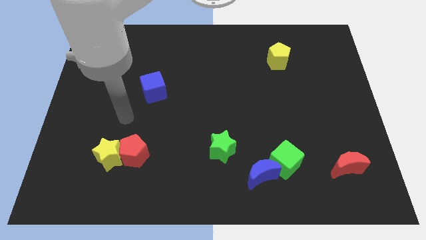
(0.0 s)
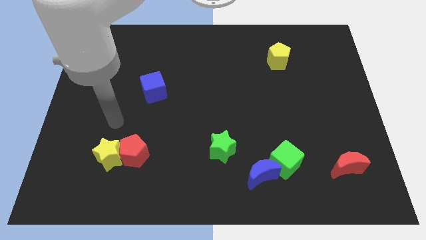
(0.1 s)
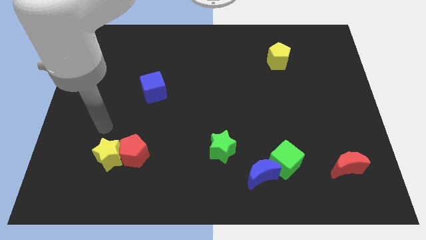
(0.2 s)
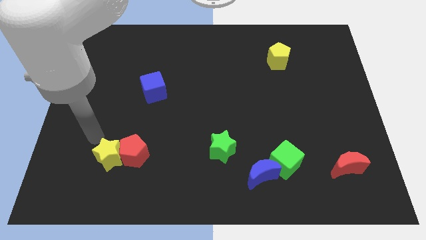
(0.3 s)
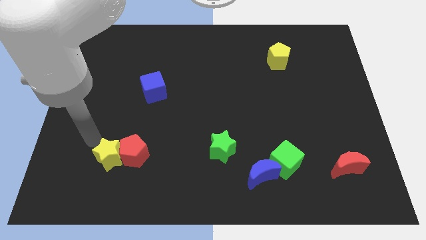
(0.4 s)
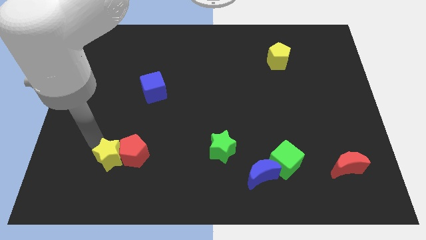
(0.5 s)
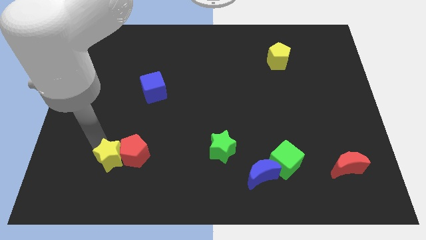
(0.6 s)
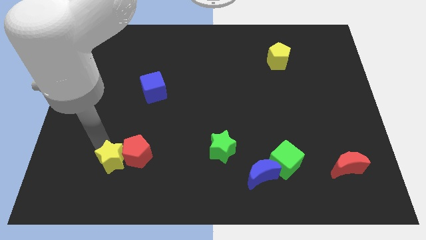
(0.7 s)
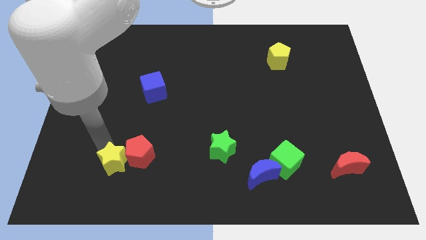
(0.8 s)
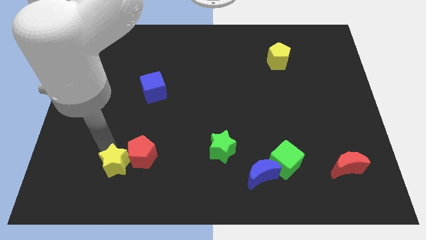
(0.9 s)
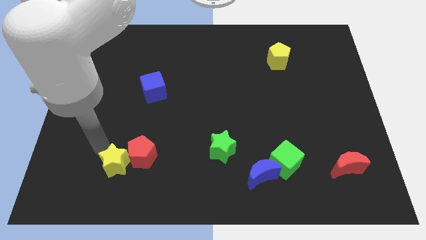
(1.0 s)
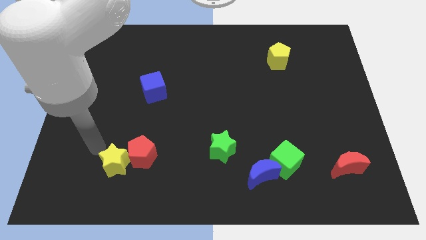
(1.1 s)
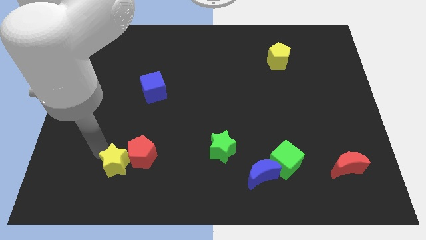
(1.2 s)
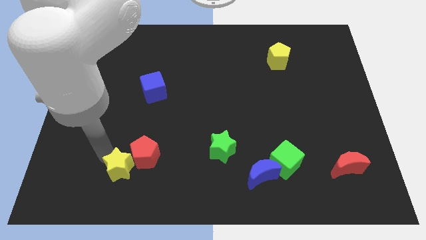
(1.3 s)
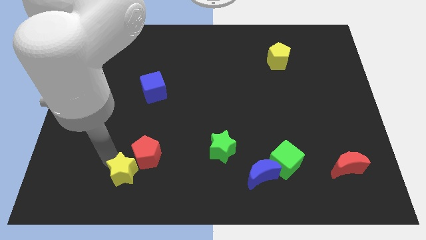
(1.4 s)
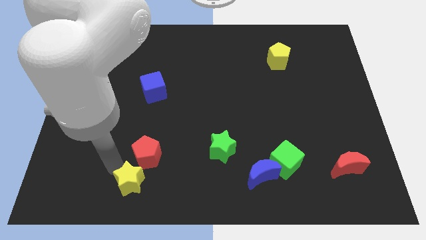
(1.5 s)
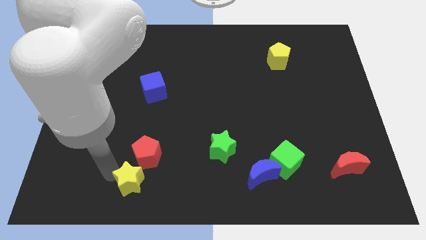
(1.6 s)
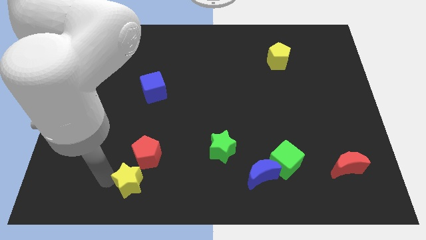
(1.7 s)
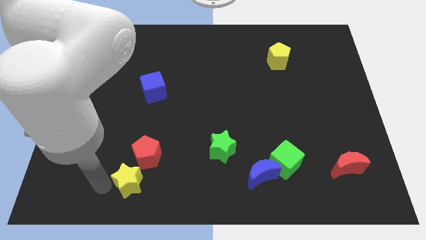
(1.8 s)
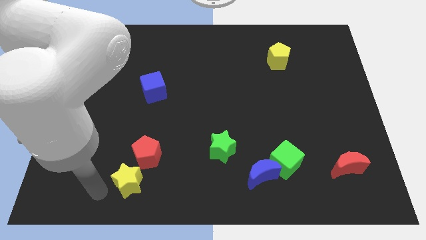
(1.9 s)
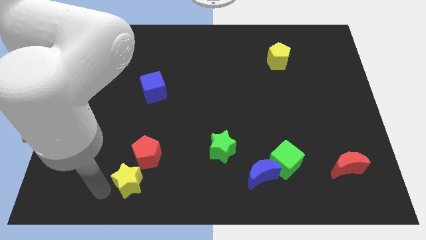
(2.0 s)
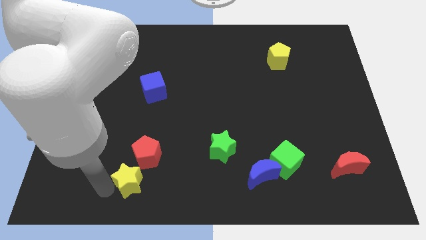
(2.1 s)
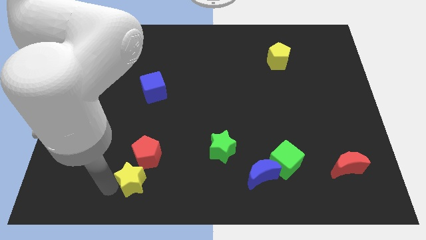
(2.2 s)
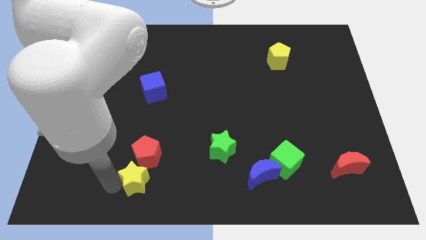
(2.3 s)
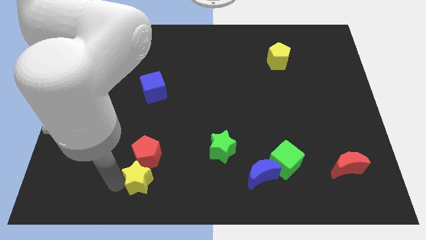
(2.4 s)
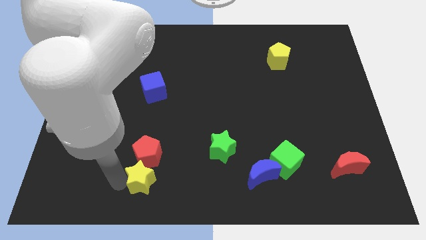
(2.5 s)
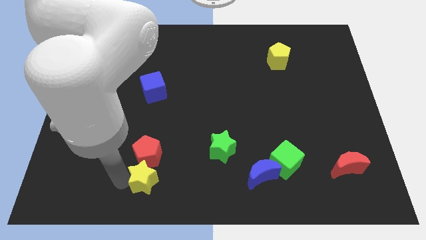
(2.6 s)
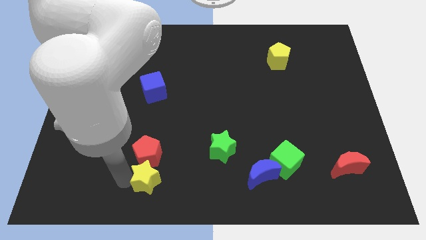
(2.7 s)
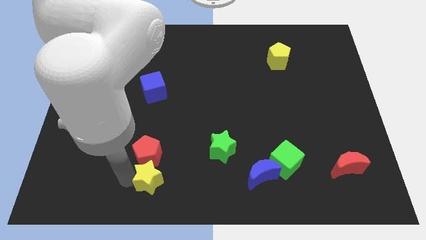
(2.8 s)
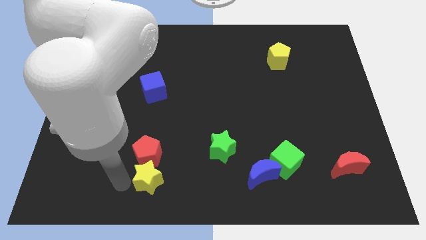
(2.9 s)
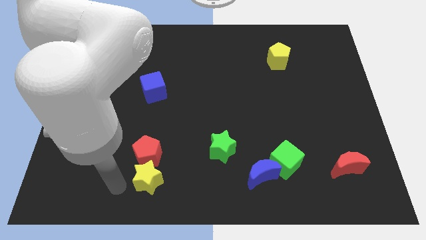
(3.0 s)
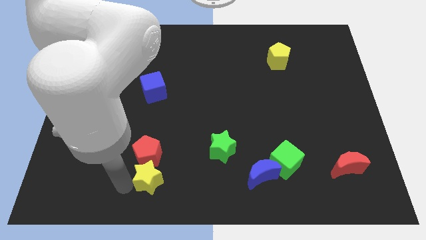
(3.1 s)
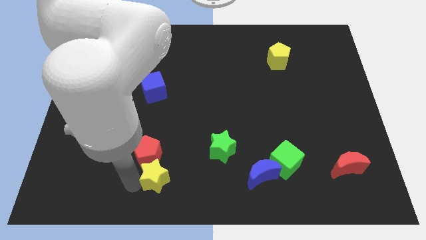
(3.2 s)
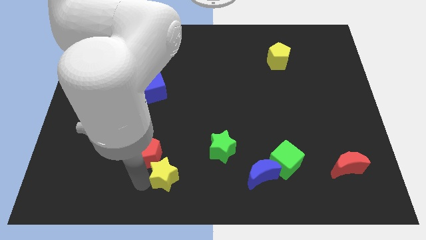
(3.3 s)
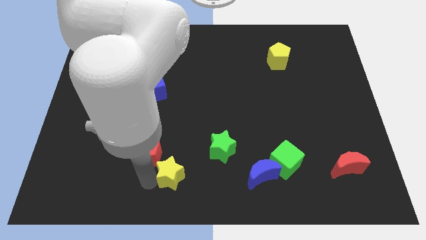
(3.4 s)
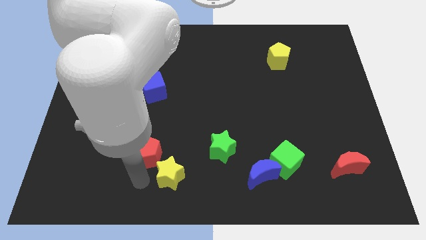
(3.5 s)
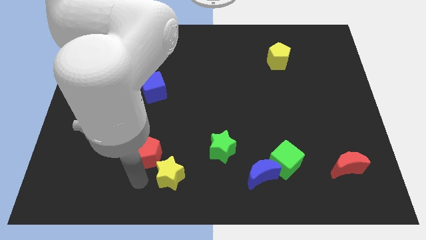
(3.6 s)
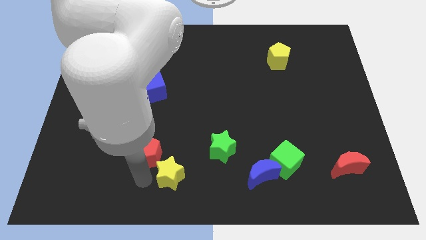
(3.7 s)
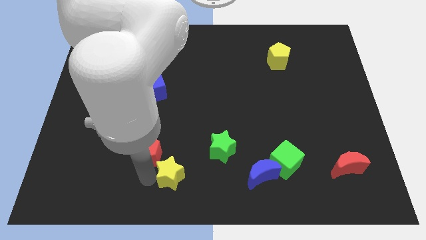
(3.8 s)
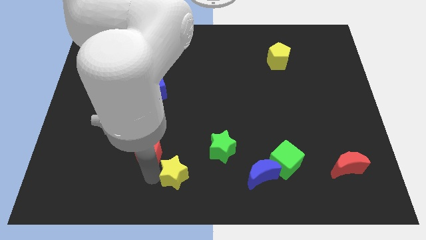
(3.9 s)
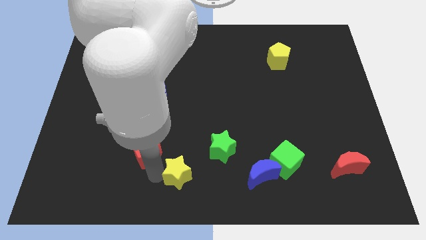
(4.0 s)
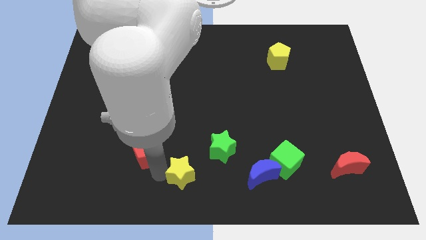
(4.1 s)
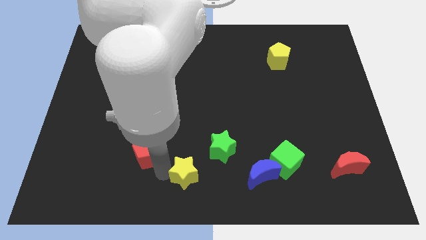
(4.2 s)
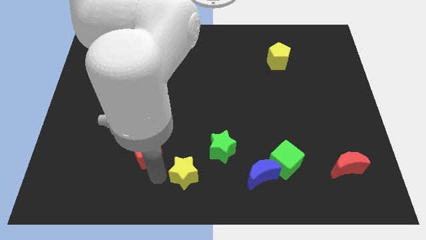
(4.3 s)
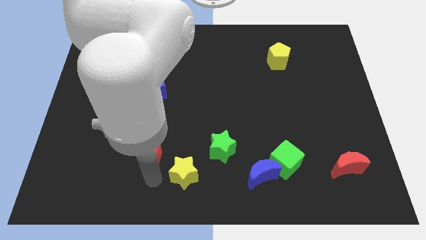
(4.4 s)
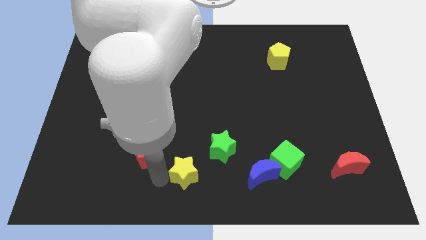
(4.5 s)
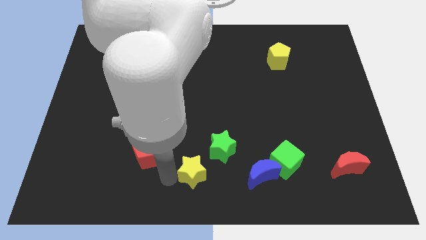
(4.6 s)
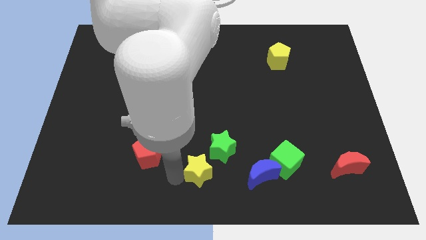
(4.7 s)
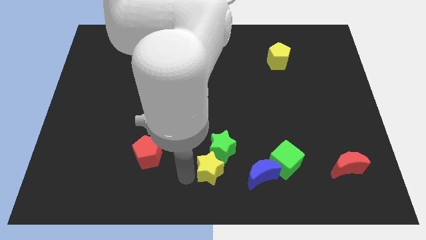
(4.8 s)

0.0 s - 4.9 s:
move the yellow star left of the green cube

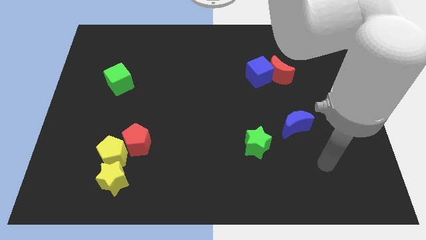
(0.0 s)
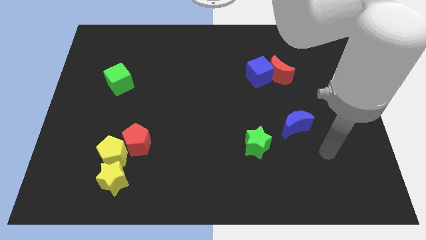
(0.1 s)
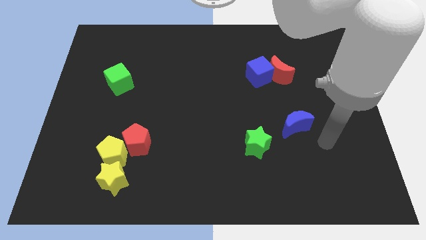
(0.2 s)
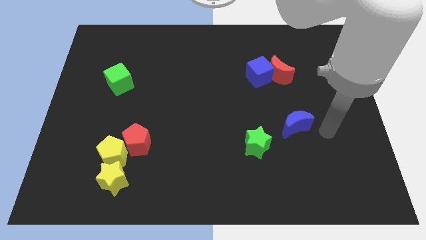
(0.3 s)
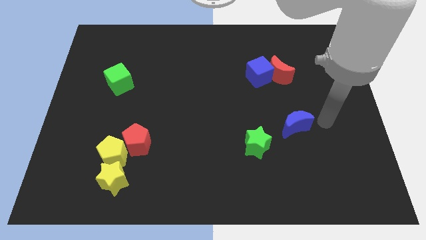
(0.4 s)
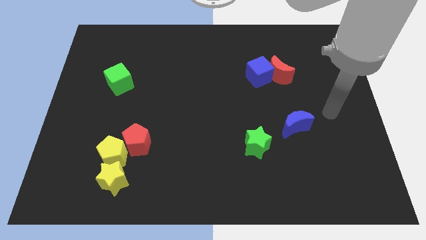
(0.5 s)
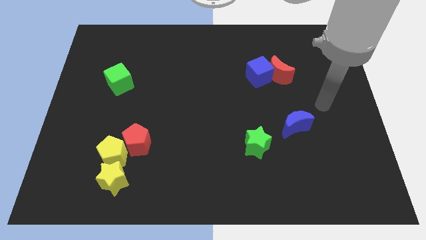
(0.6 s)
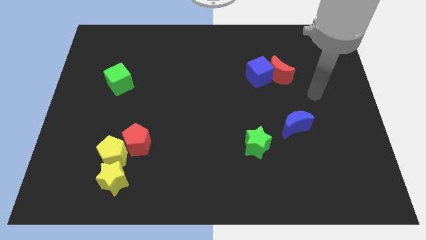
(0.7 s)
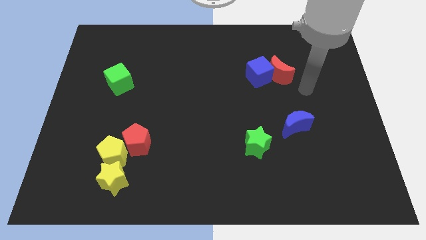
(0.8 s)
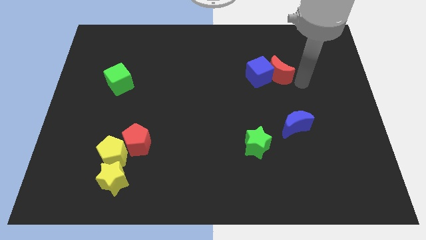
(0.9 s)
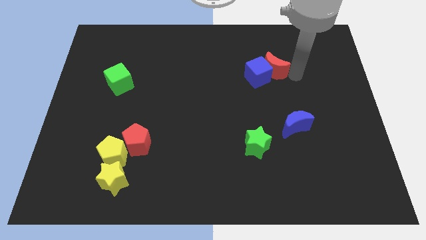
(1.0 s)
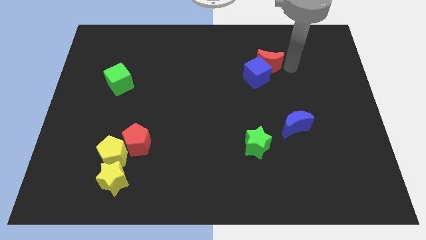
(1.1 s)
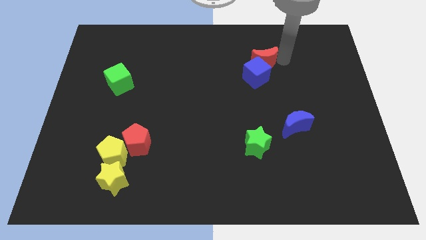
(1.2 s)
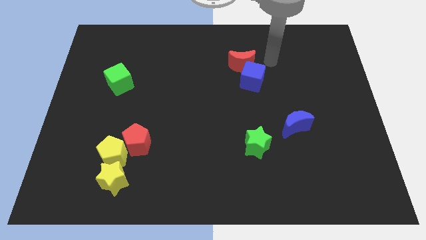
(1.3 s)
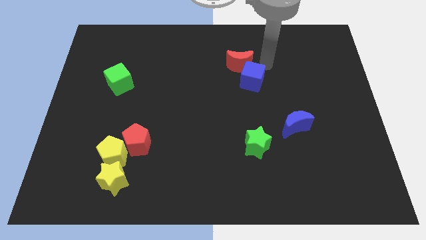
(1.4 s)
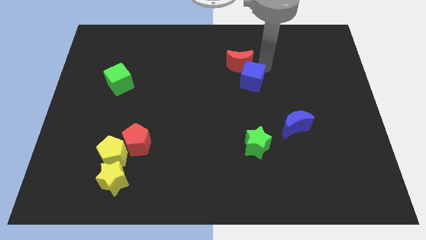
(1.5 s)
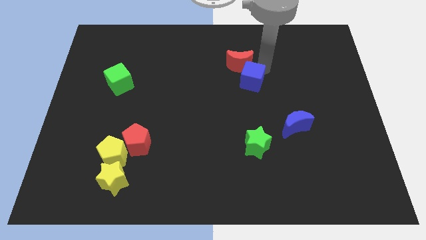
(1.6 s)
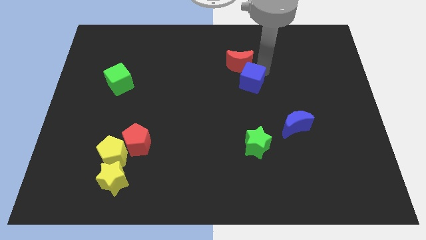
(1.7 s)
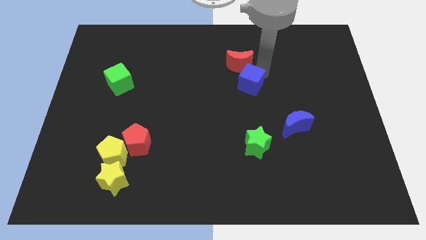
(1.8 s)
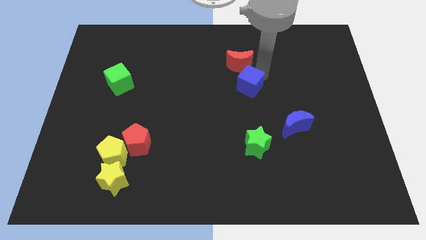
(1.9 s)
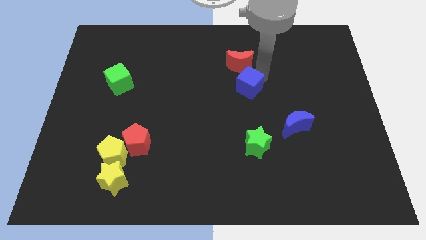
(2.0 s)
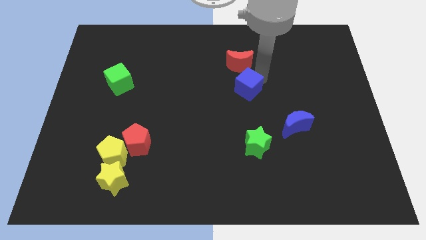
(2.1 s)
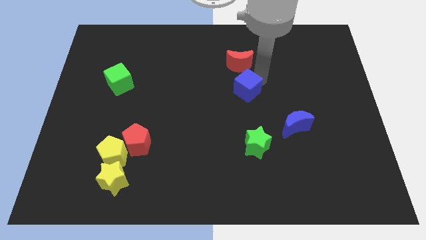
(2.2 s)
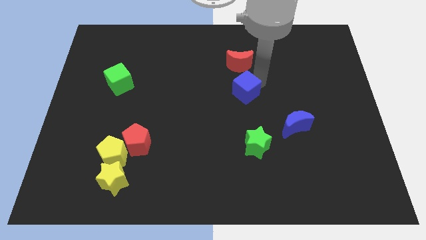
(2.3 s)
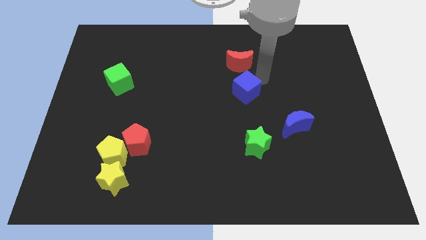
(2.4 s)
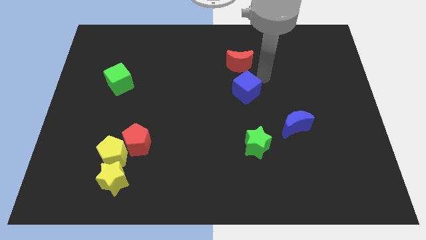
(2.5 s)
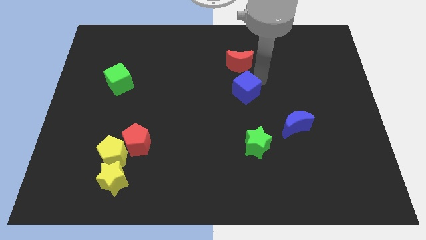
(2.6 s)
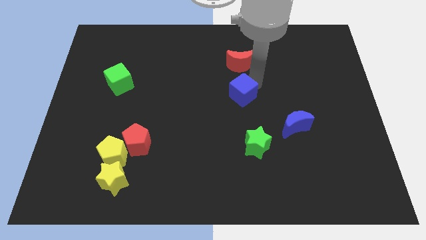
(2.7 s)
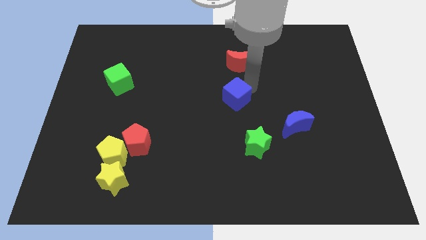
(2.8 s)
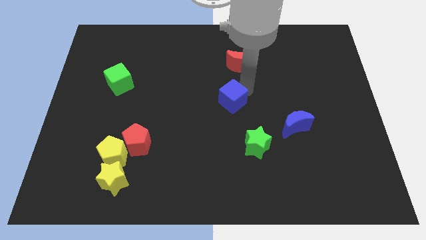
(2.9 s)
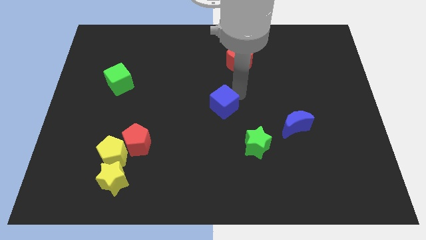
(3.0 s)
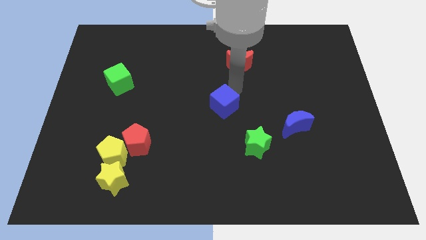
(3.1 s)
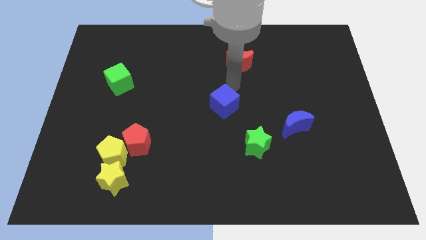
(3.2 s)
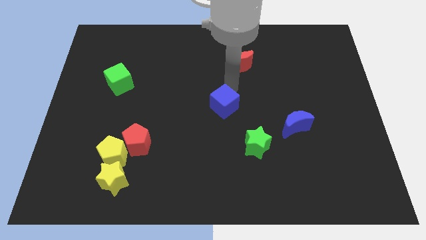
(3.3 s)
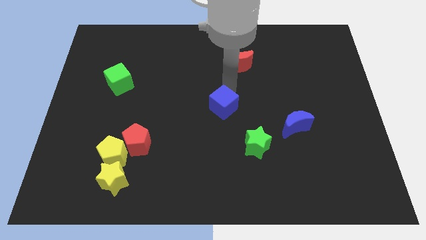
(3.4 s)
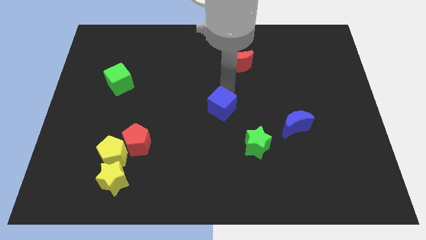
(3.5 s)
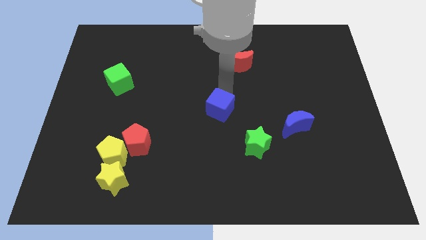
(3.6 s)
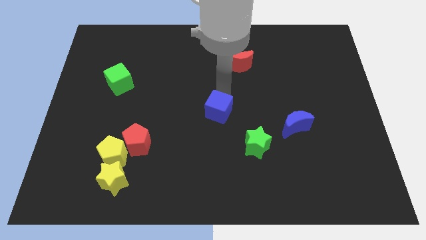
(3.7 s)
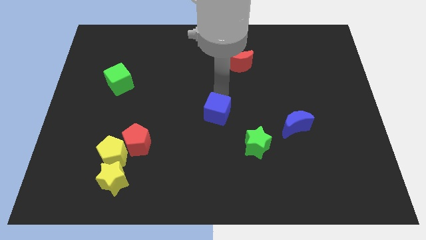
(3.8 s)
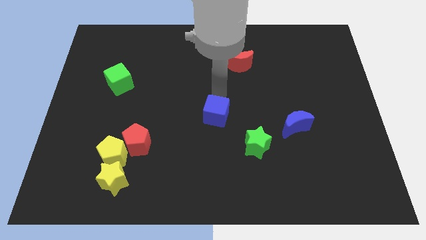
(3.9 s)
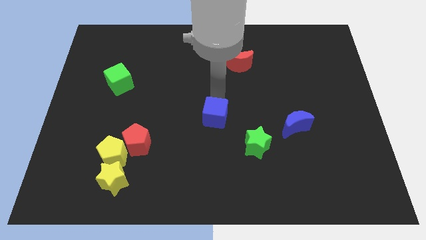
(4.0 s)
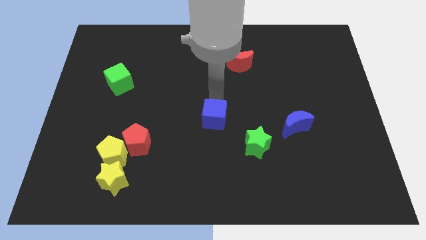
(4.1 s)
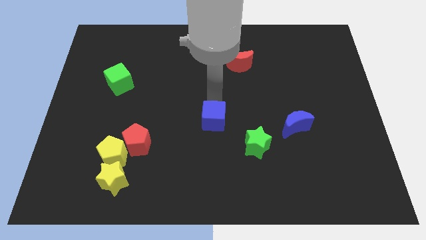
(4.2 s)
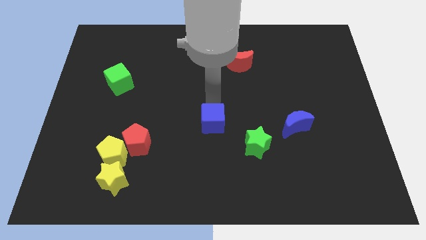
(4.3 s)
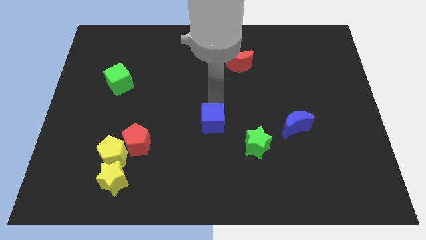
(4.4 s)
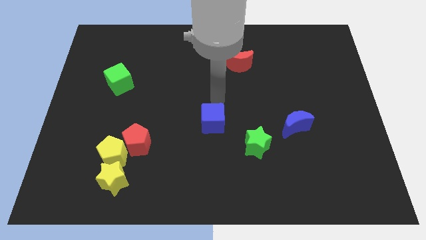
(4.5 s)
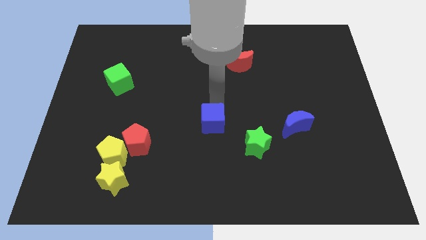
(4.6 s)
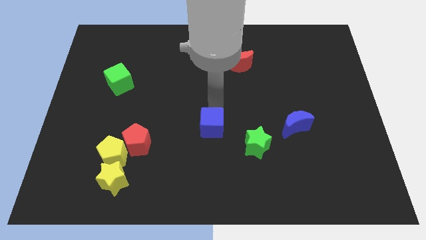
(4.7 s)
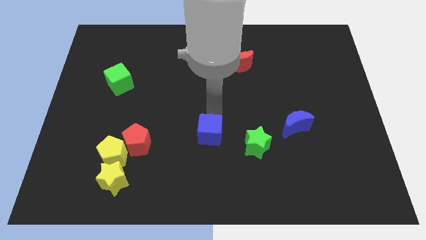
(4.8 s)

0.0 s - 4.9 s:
push the blue cube to the left side of the green star
